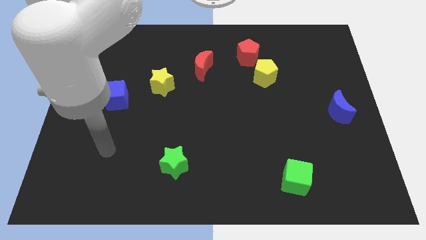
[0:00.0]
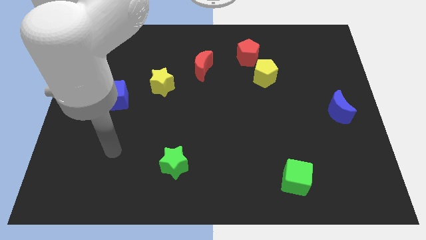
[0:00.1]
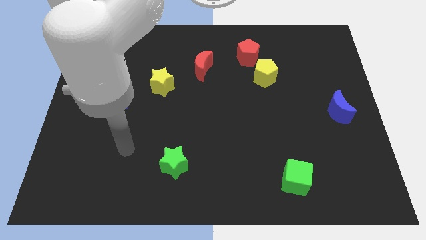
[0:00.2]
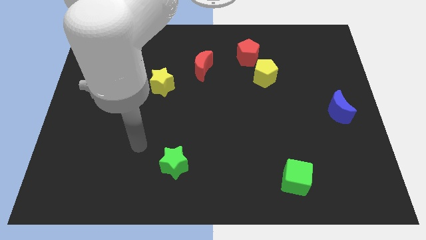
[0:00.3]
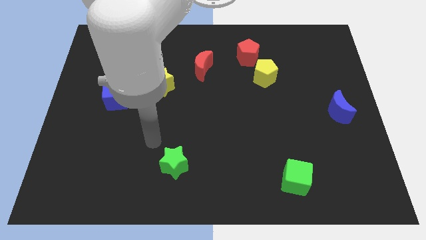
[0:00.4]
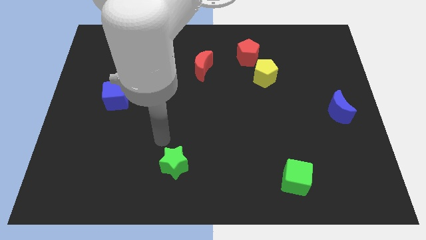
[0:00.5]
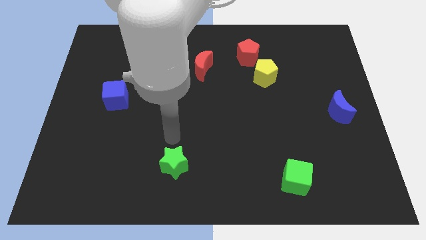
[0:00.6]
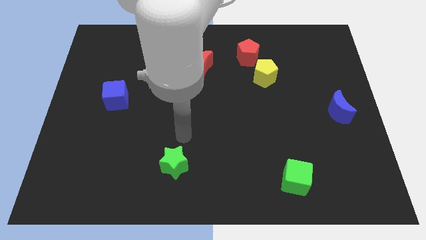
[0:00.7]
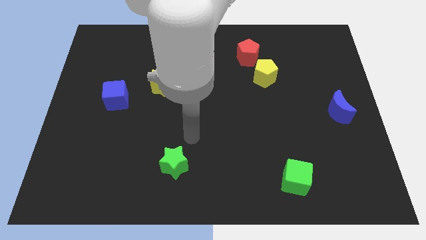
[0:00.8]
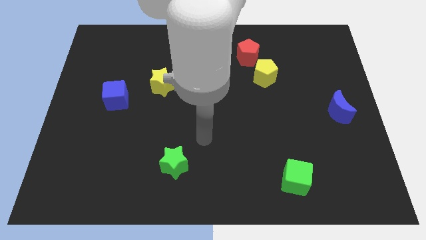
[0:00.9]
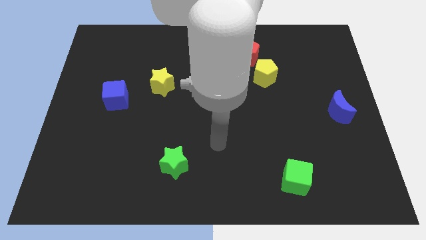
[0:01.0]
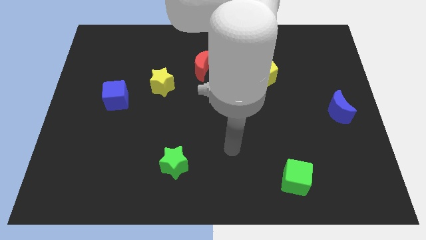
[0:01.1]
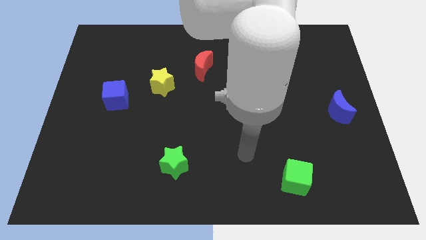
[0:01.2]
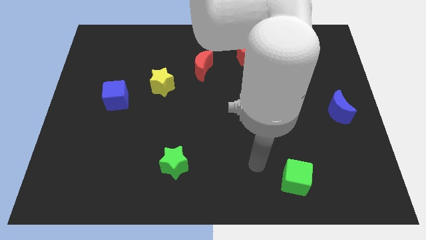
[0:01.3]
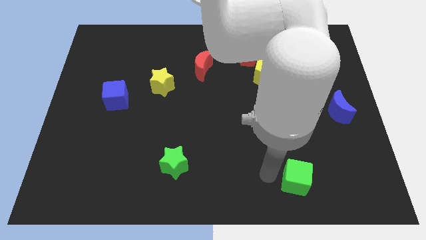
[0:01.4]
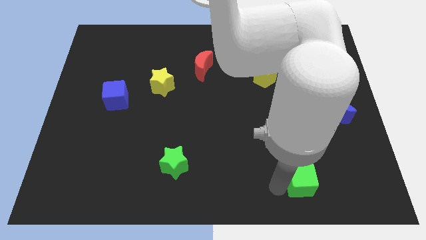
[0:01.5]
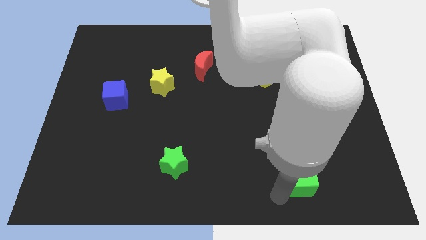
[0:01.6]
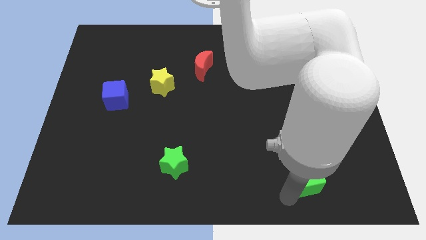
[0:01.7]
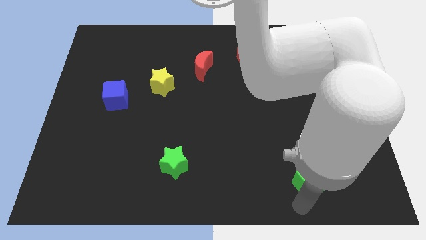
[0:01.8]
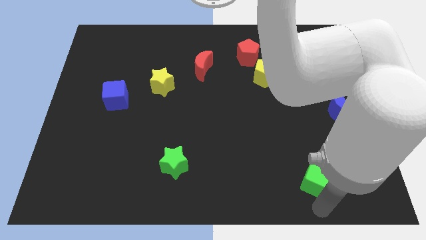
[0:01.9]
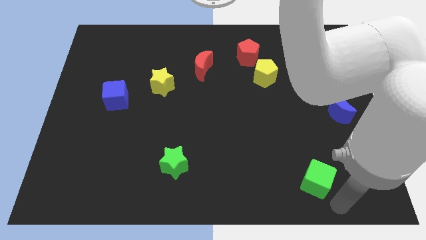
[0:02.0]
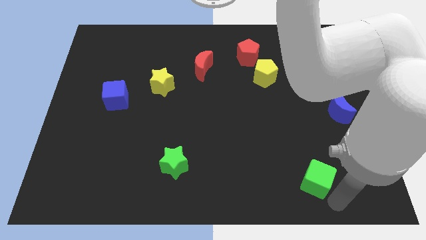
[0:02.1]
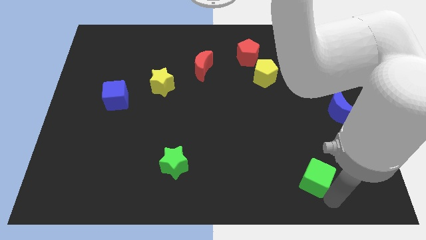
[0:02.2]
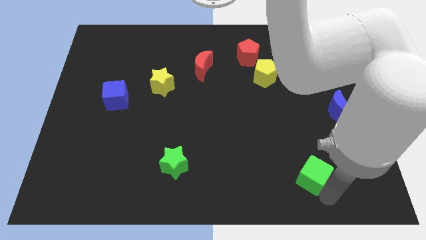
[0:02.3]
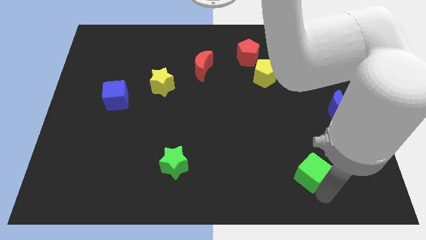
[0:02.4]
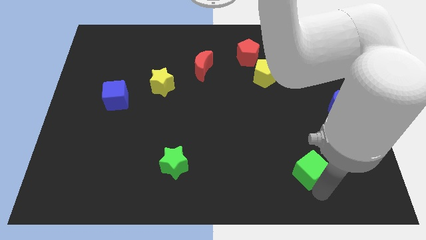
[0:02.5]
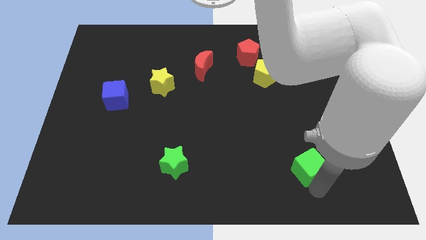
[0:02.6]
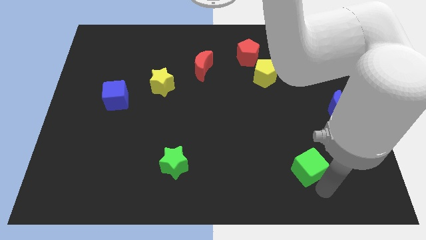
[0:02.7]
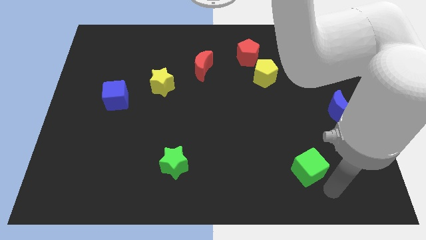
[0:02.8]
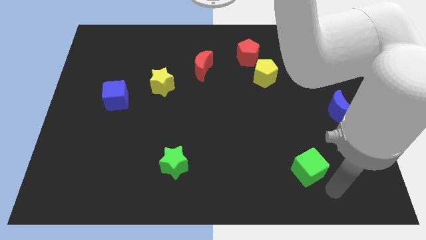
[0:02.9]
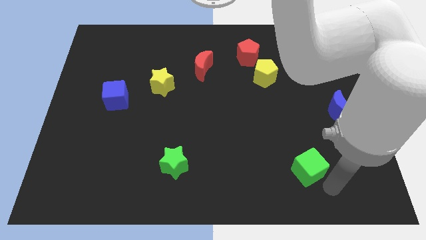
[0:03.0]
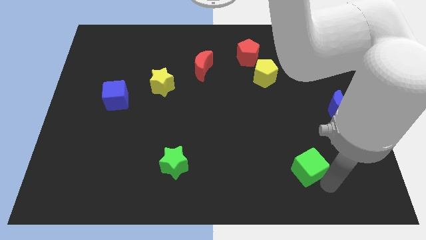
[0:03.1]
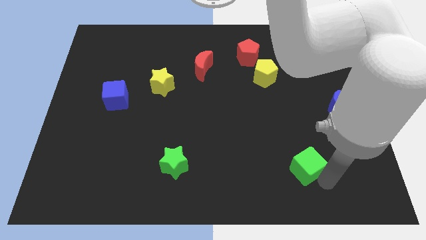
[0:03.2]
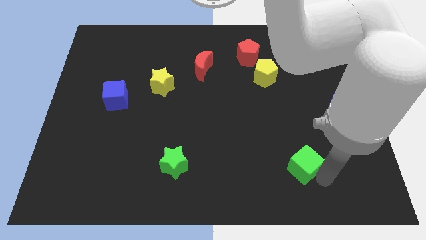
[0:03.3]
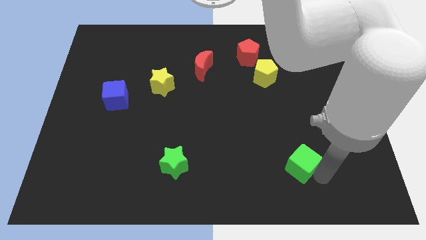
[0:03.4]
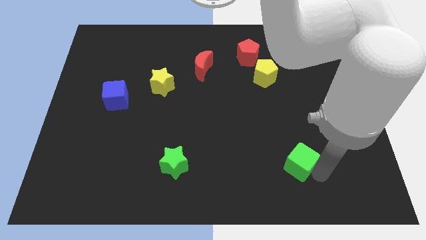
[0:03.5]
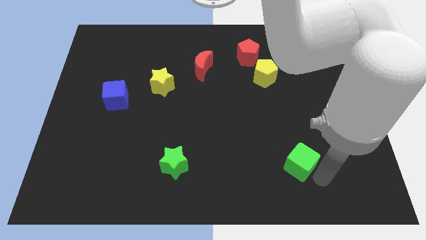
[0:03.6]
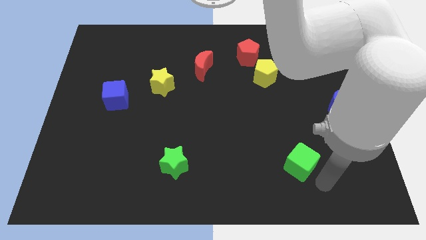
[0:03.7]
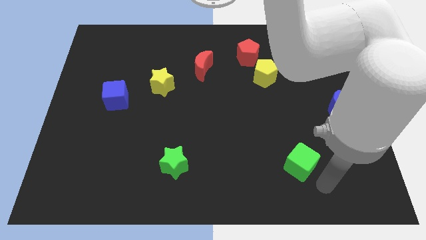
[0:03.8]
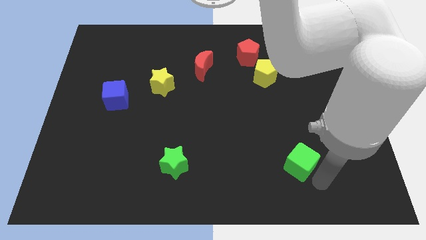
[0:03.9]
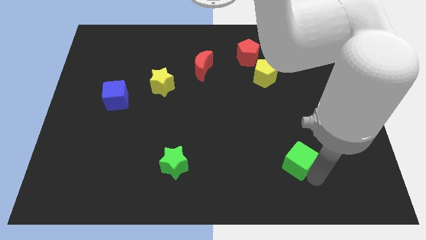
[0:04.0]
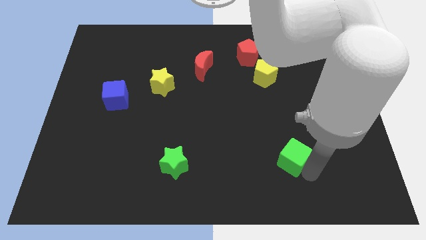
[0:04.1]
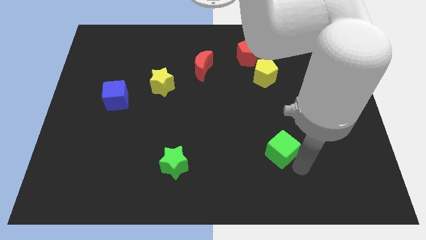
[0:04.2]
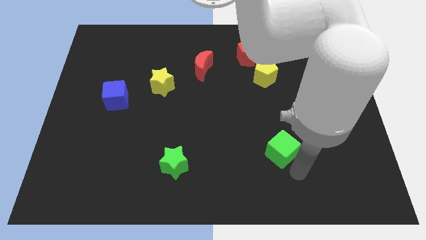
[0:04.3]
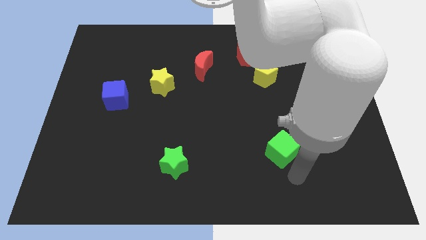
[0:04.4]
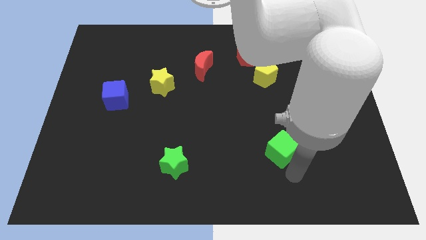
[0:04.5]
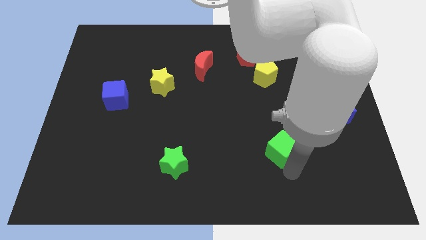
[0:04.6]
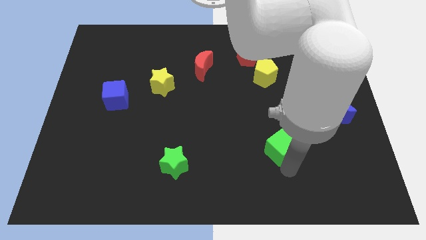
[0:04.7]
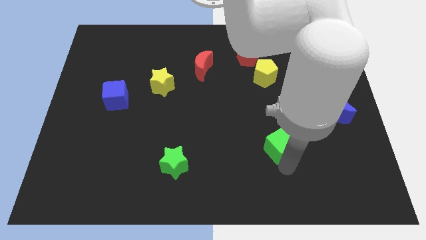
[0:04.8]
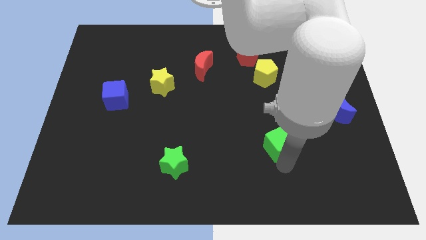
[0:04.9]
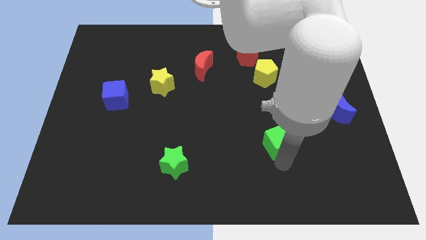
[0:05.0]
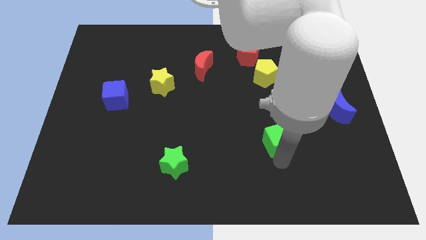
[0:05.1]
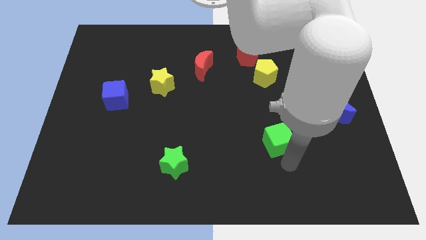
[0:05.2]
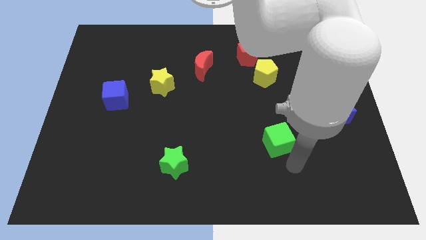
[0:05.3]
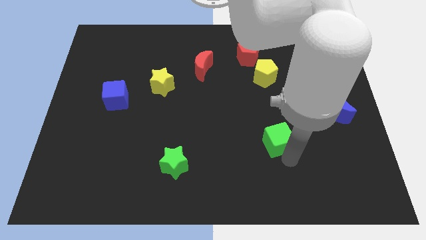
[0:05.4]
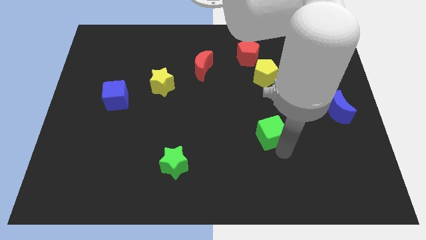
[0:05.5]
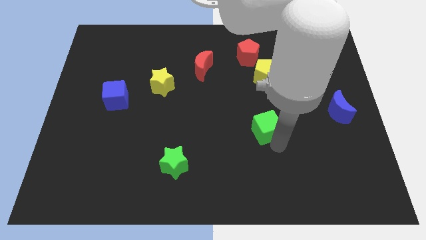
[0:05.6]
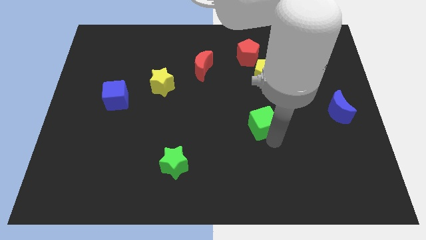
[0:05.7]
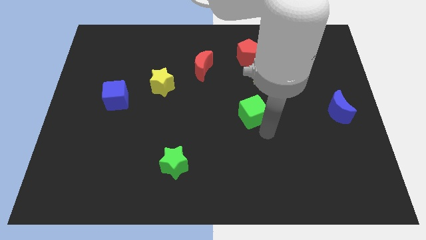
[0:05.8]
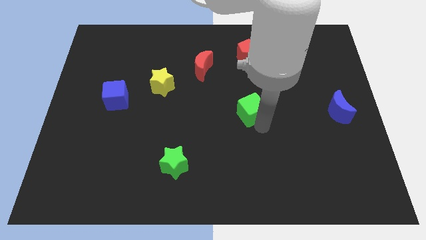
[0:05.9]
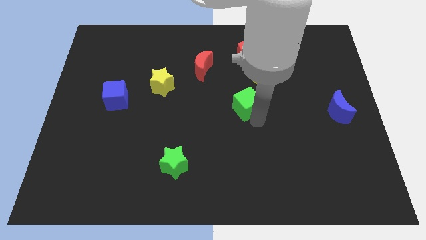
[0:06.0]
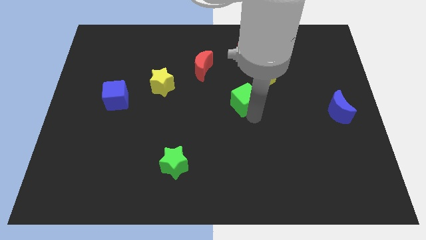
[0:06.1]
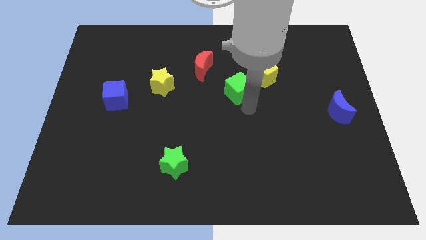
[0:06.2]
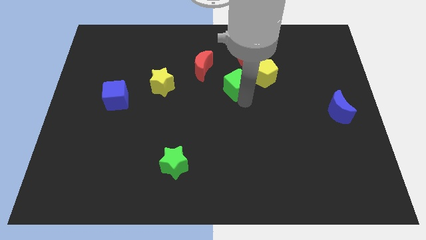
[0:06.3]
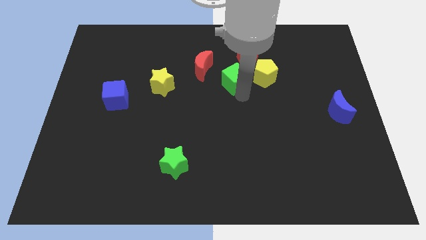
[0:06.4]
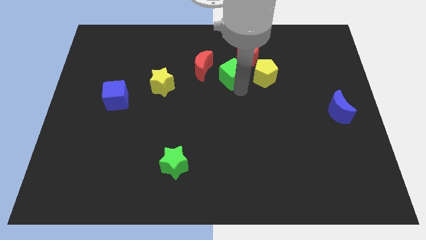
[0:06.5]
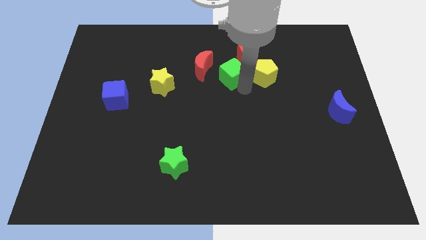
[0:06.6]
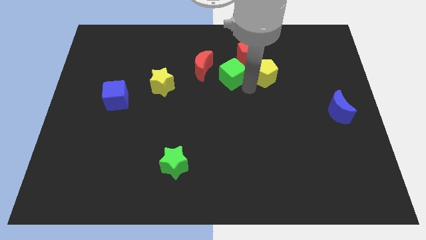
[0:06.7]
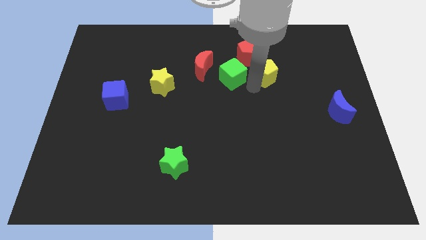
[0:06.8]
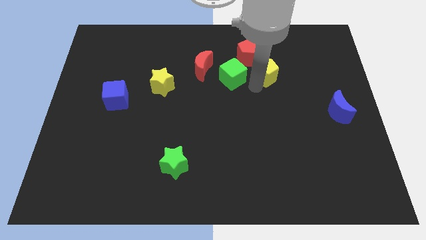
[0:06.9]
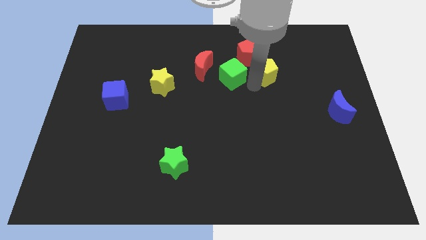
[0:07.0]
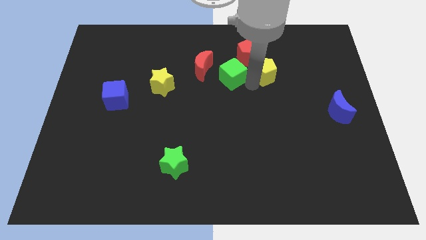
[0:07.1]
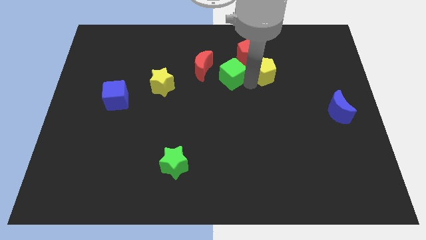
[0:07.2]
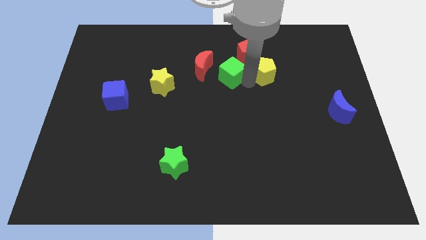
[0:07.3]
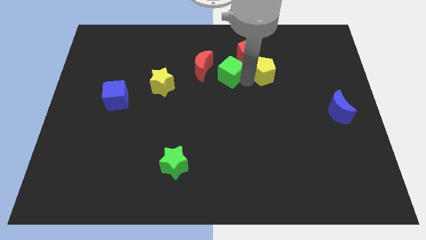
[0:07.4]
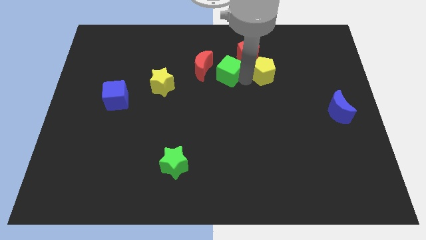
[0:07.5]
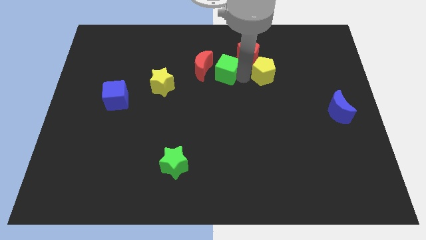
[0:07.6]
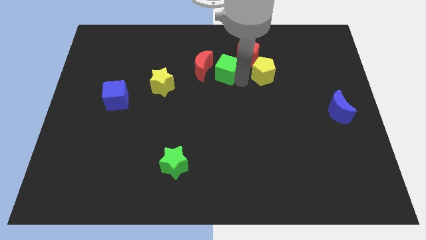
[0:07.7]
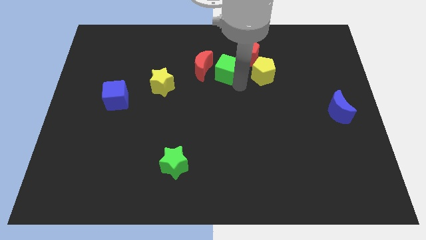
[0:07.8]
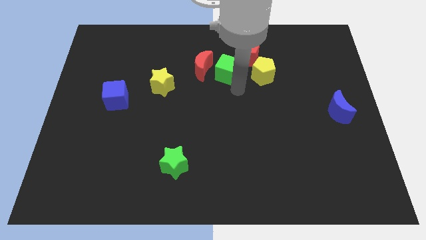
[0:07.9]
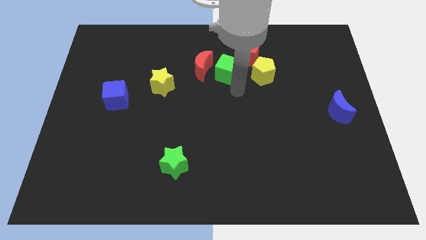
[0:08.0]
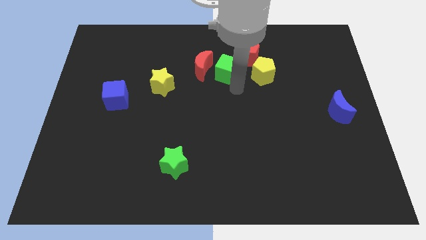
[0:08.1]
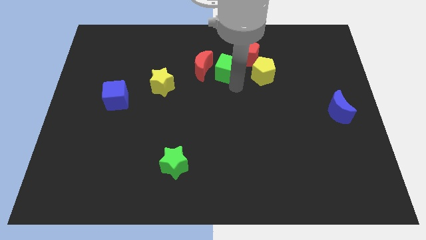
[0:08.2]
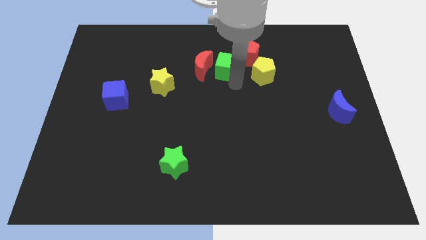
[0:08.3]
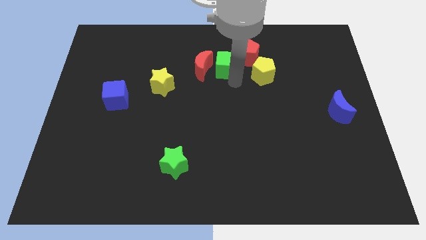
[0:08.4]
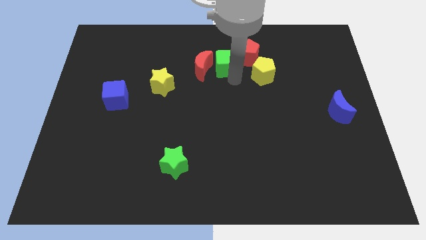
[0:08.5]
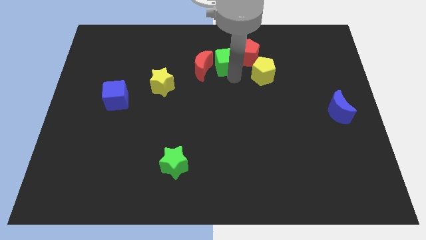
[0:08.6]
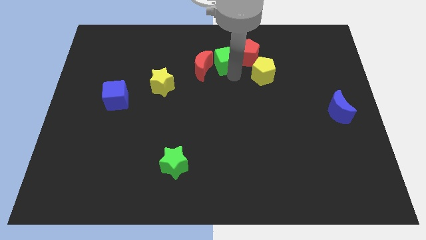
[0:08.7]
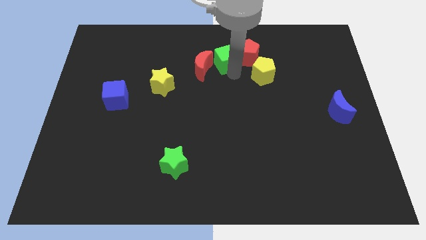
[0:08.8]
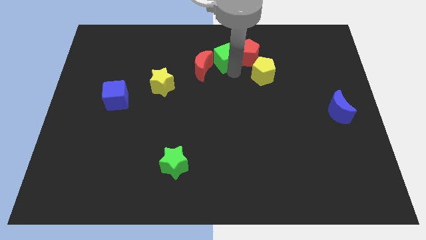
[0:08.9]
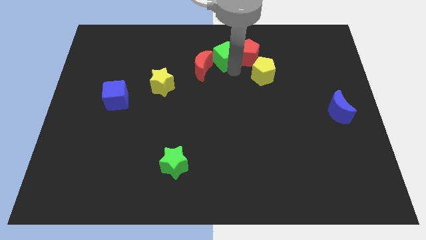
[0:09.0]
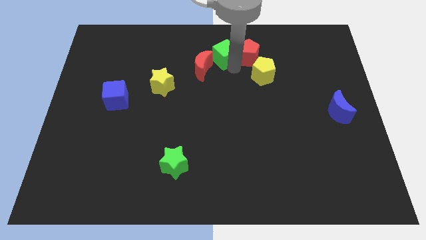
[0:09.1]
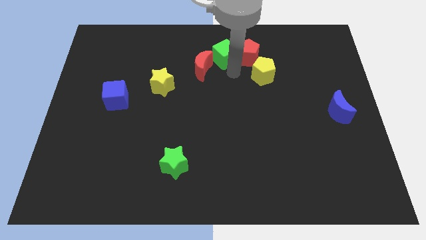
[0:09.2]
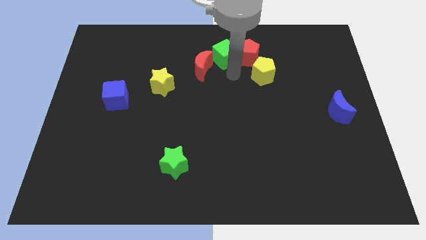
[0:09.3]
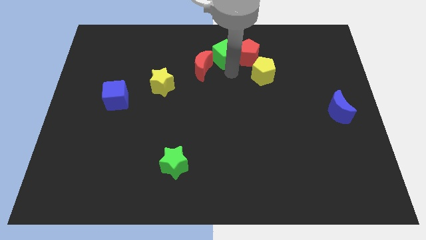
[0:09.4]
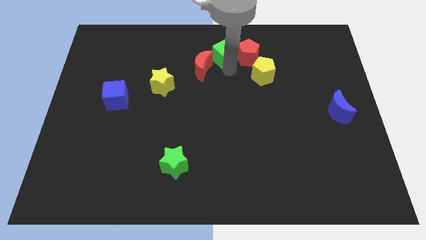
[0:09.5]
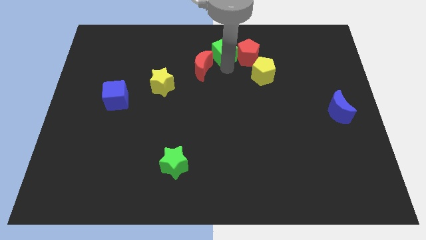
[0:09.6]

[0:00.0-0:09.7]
slide the green cube to the top
